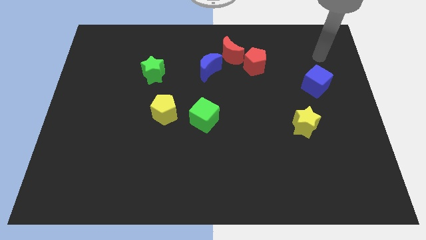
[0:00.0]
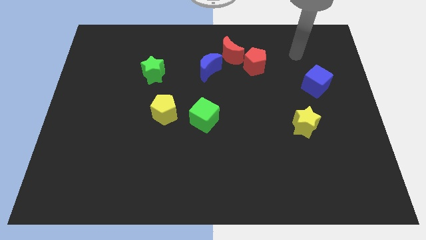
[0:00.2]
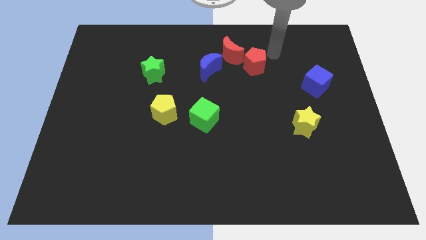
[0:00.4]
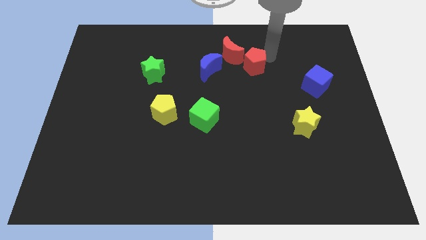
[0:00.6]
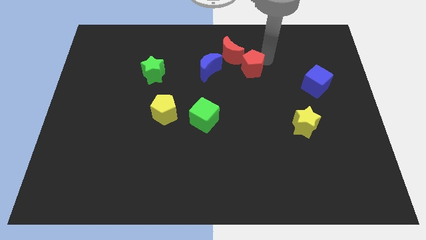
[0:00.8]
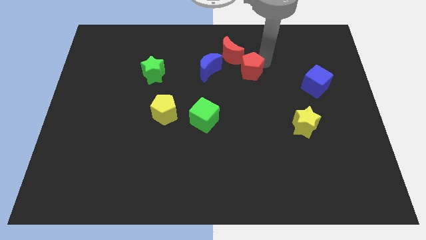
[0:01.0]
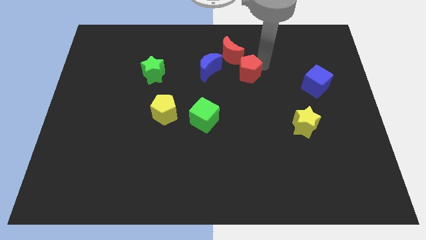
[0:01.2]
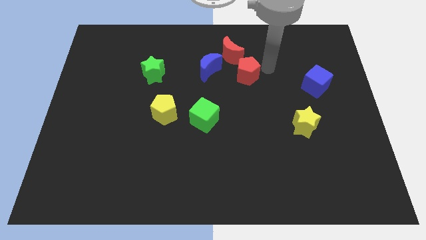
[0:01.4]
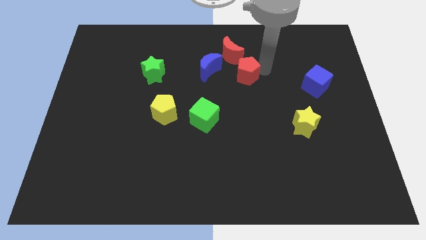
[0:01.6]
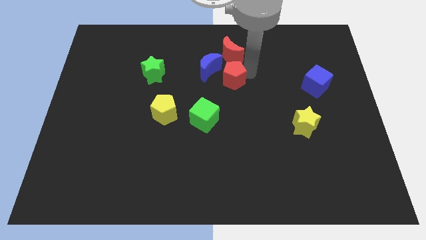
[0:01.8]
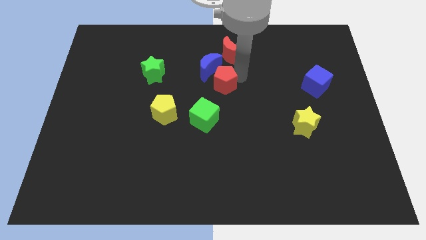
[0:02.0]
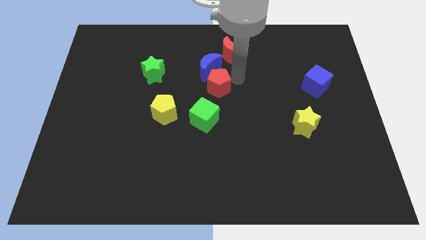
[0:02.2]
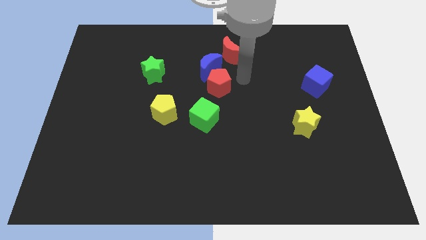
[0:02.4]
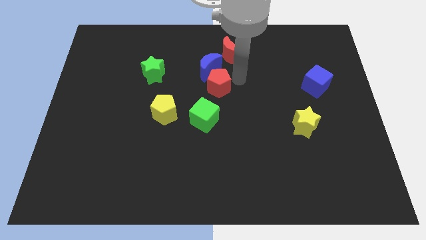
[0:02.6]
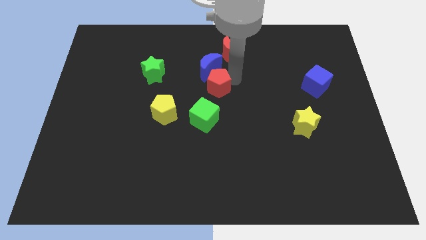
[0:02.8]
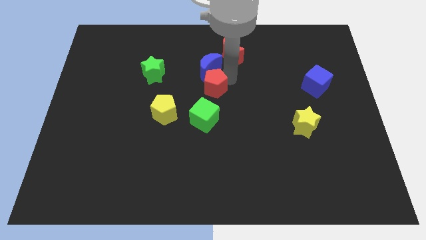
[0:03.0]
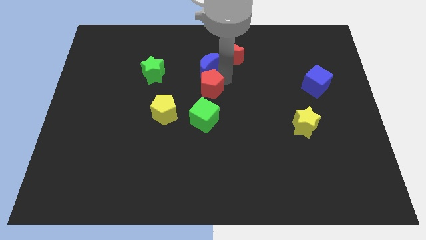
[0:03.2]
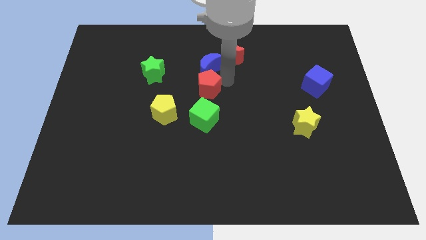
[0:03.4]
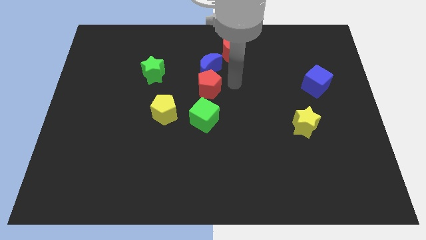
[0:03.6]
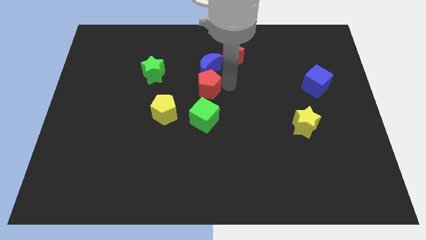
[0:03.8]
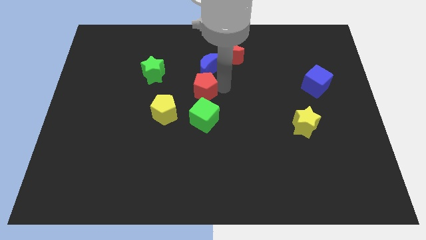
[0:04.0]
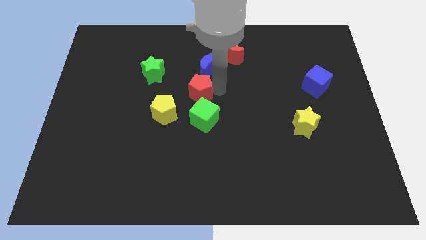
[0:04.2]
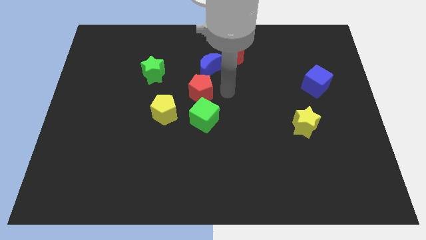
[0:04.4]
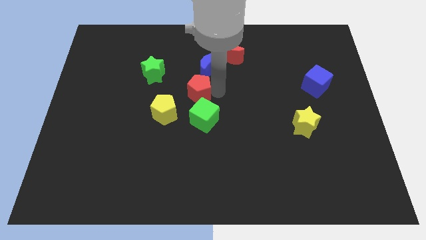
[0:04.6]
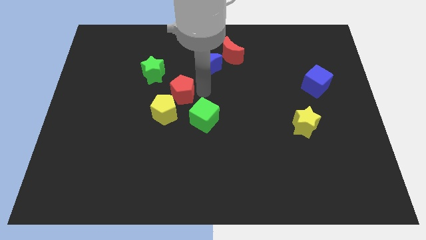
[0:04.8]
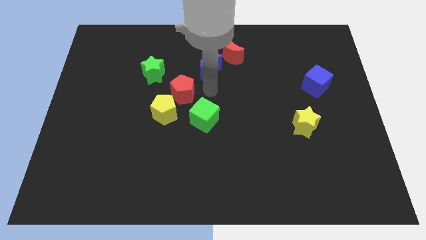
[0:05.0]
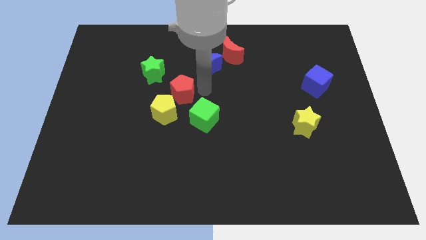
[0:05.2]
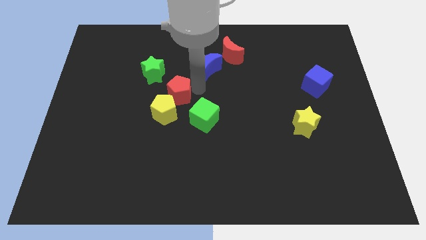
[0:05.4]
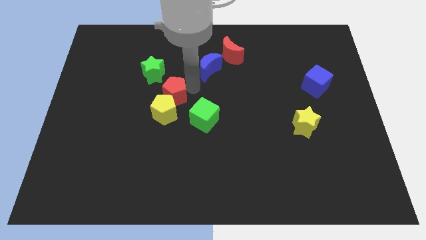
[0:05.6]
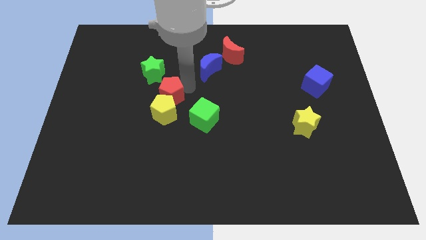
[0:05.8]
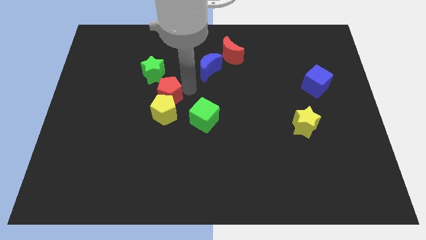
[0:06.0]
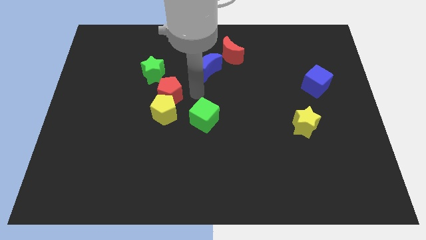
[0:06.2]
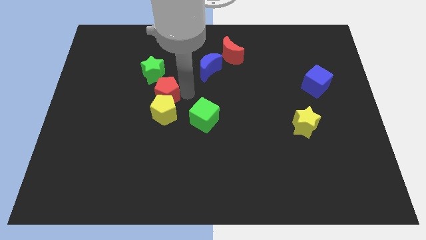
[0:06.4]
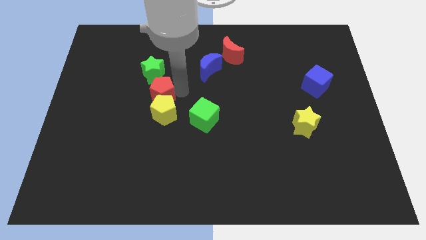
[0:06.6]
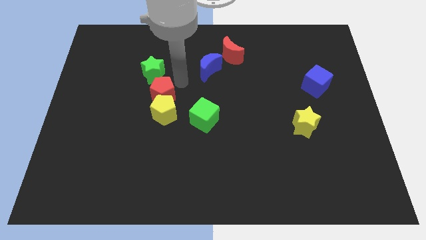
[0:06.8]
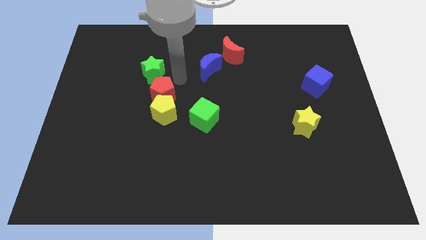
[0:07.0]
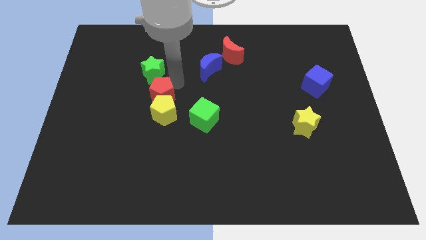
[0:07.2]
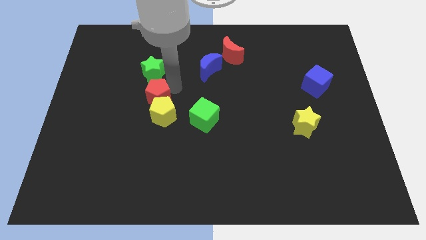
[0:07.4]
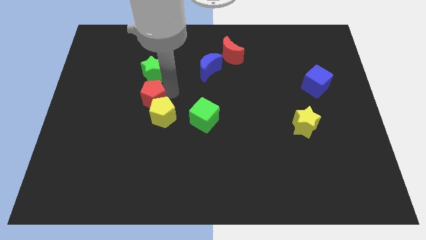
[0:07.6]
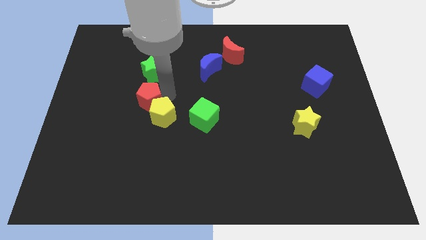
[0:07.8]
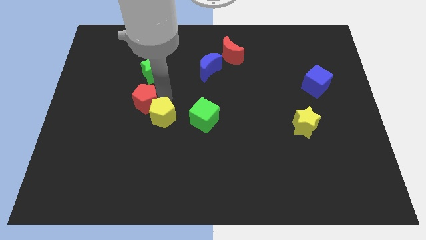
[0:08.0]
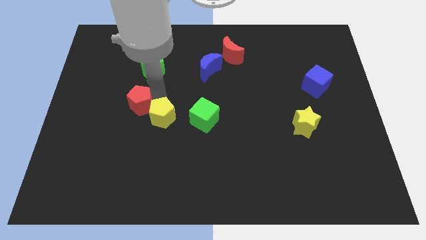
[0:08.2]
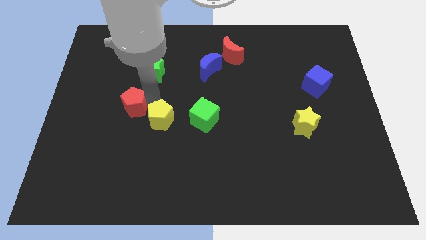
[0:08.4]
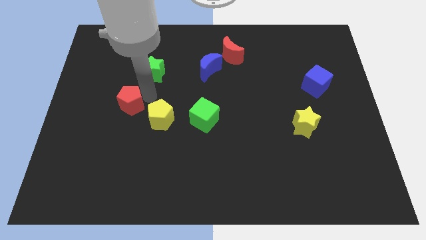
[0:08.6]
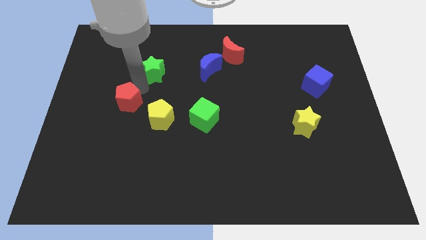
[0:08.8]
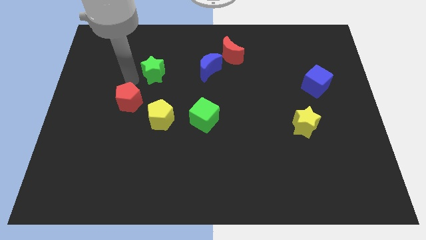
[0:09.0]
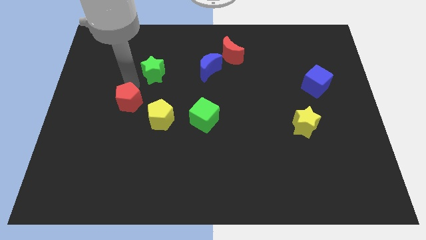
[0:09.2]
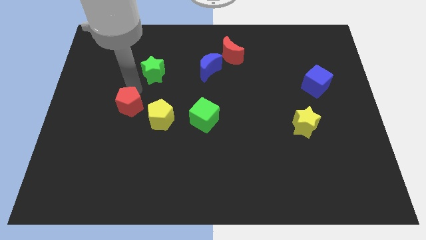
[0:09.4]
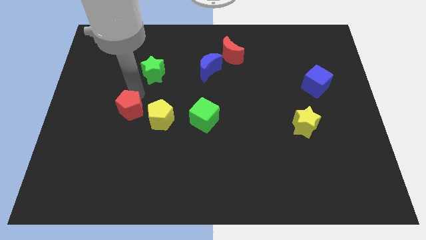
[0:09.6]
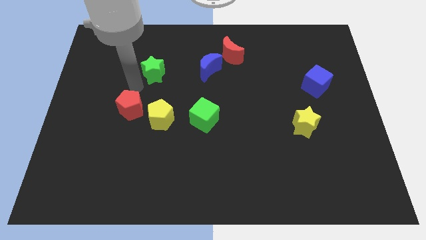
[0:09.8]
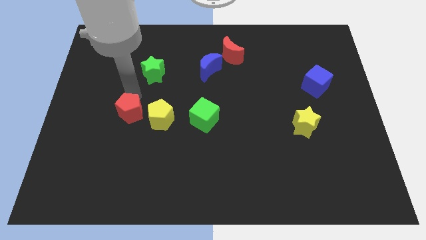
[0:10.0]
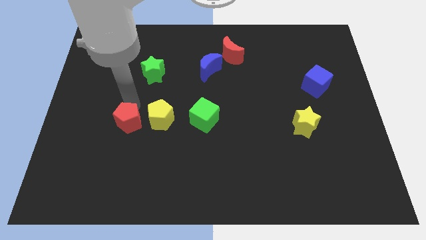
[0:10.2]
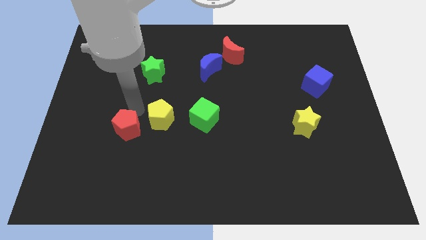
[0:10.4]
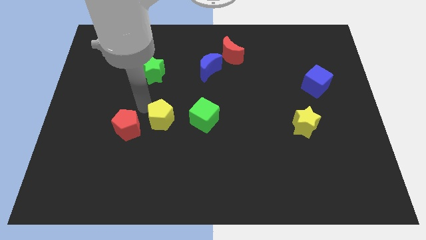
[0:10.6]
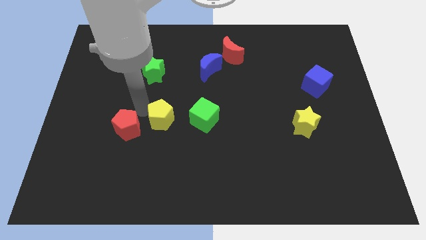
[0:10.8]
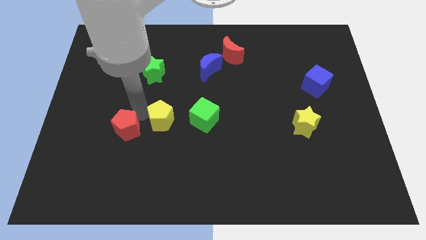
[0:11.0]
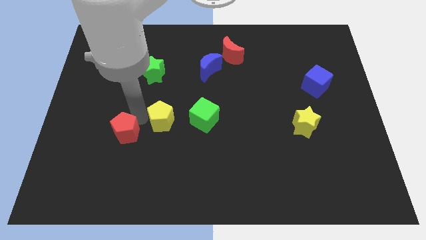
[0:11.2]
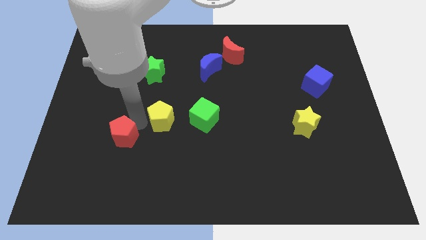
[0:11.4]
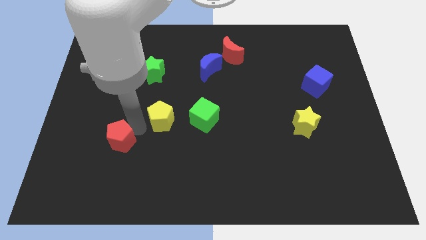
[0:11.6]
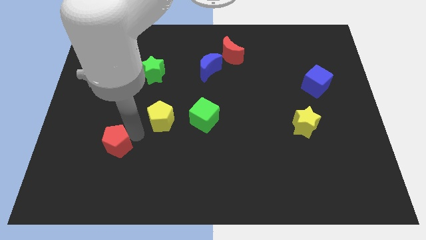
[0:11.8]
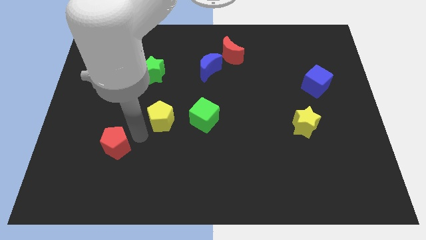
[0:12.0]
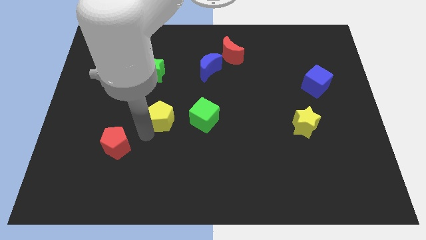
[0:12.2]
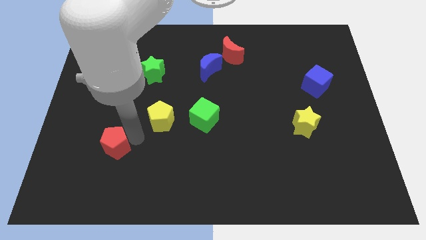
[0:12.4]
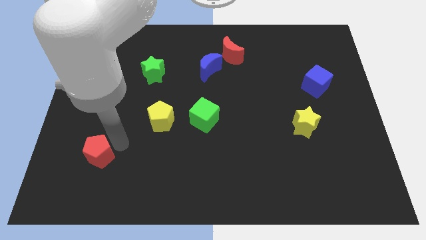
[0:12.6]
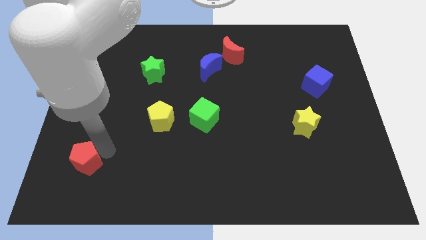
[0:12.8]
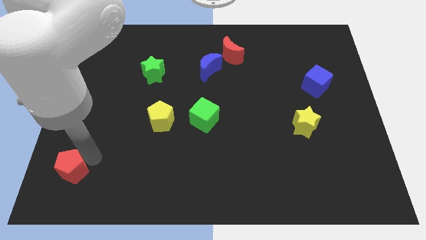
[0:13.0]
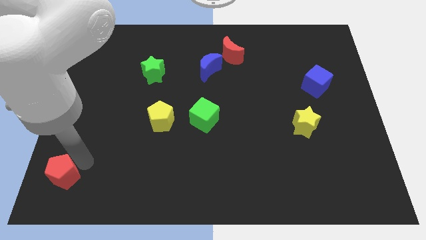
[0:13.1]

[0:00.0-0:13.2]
put the red pentagon to the lower left corner
